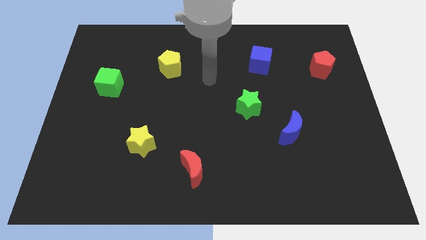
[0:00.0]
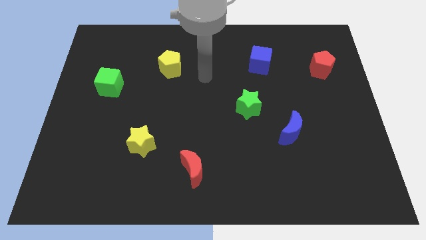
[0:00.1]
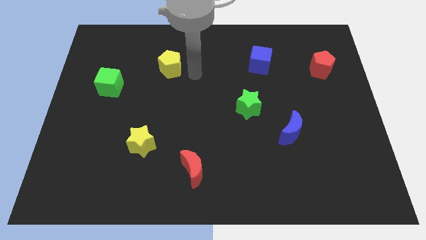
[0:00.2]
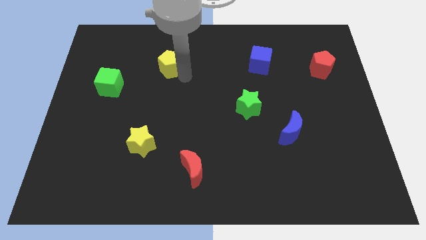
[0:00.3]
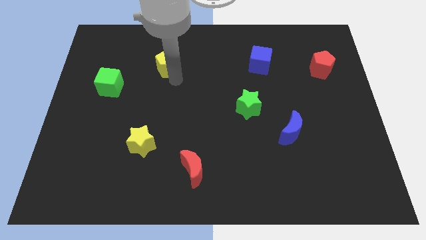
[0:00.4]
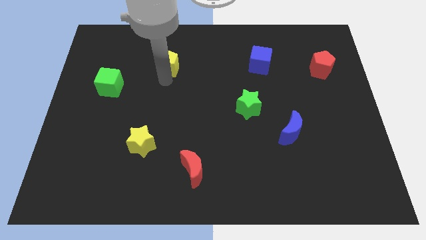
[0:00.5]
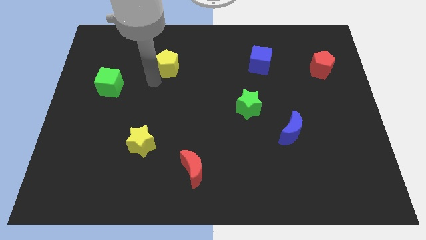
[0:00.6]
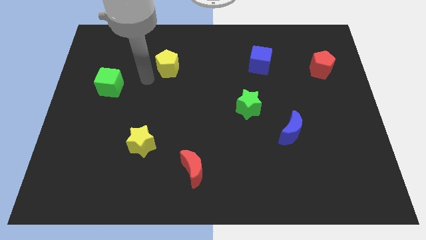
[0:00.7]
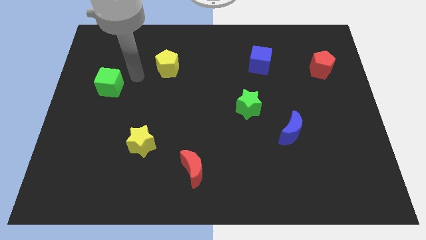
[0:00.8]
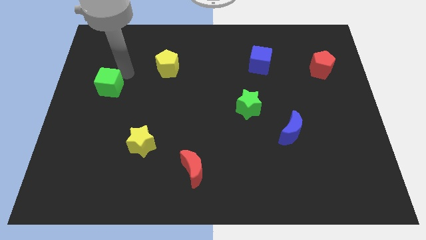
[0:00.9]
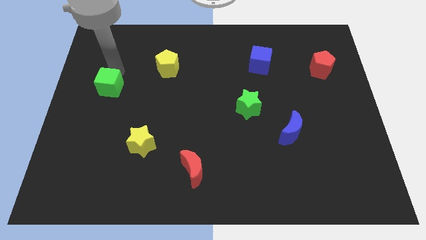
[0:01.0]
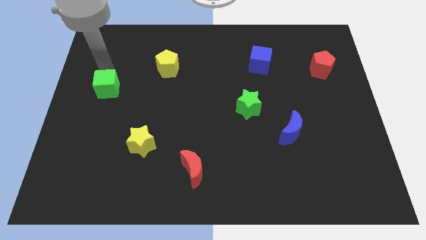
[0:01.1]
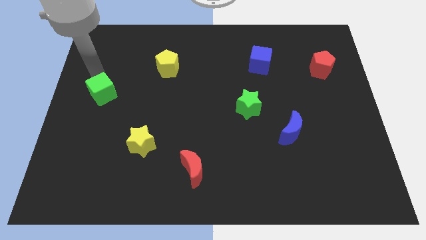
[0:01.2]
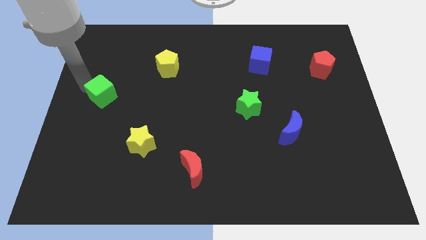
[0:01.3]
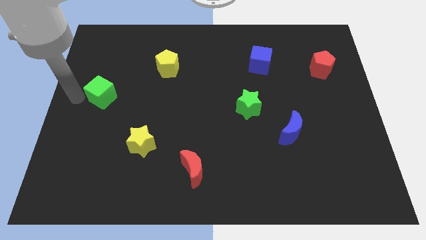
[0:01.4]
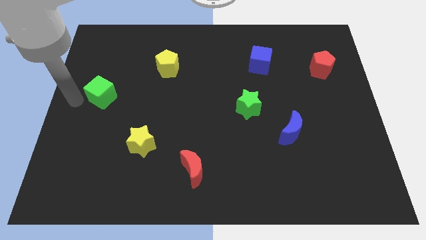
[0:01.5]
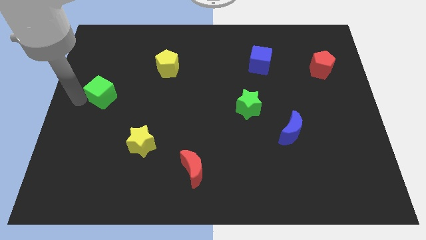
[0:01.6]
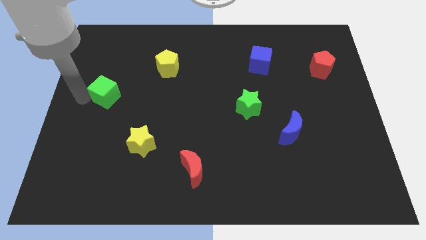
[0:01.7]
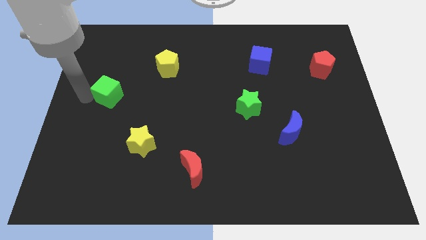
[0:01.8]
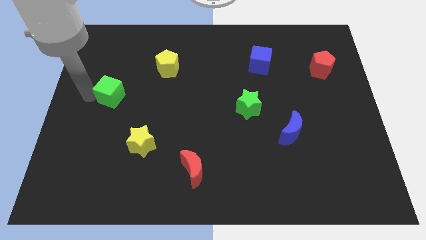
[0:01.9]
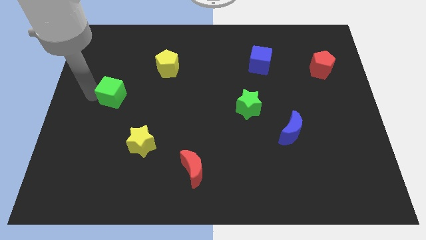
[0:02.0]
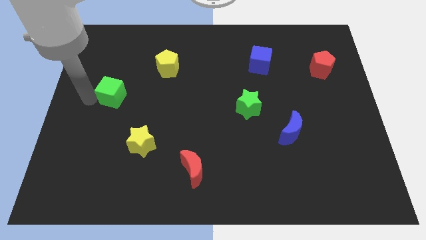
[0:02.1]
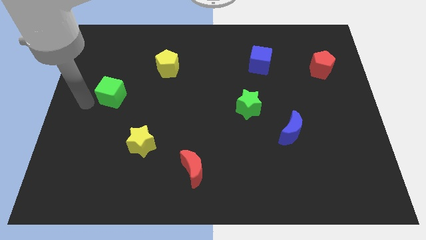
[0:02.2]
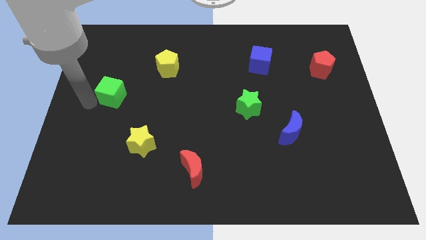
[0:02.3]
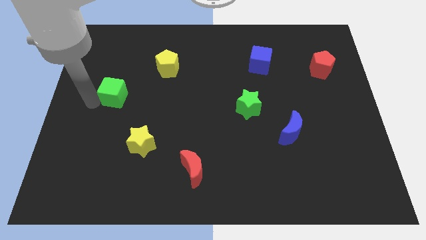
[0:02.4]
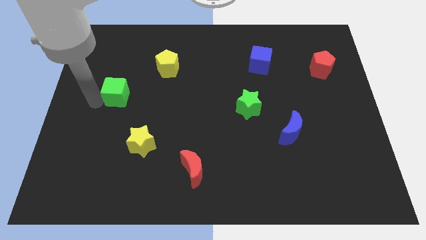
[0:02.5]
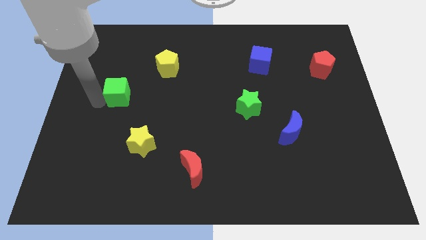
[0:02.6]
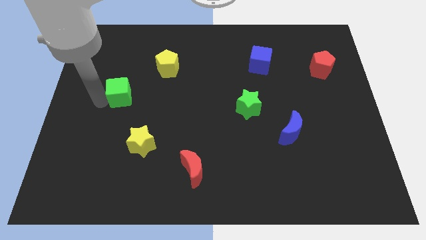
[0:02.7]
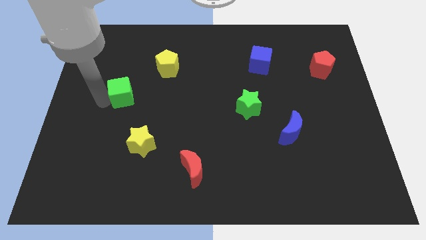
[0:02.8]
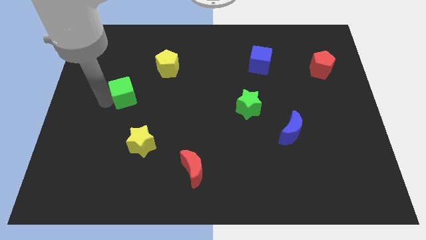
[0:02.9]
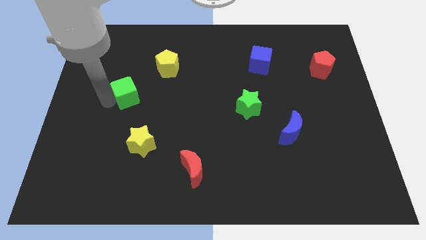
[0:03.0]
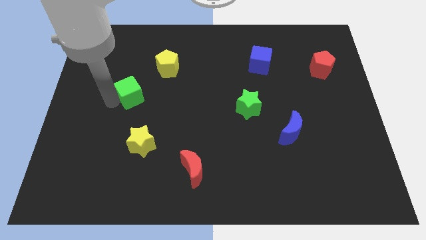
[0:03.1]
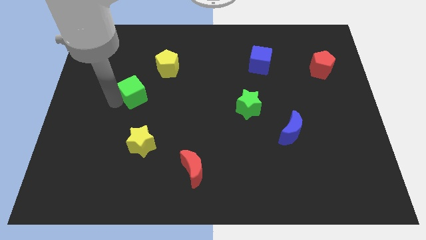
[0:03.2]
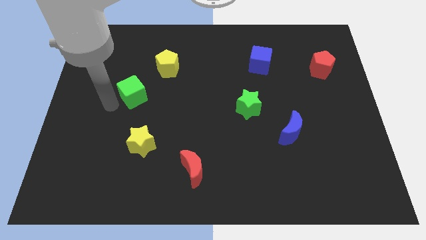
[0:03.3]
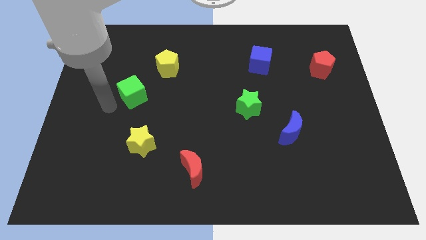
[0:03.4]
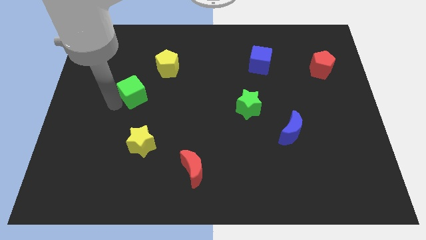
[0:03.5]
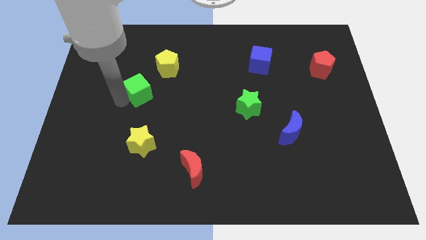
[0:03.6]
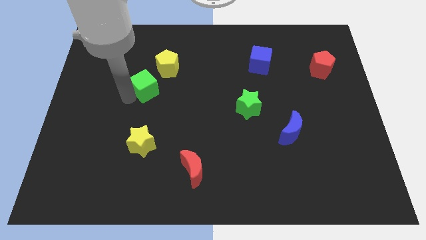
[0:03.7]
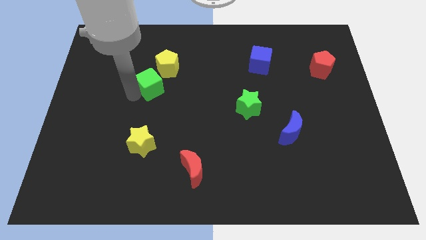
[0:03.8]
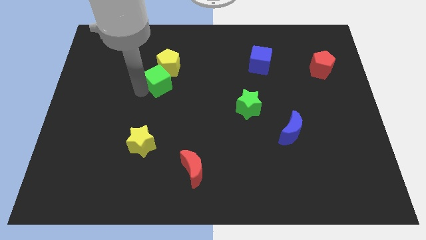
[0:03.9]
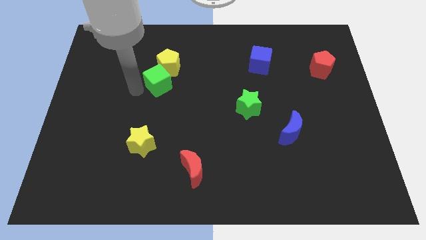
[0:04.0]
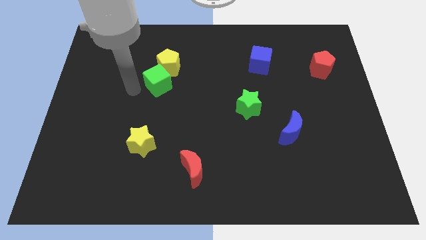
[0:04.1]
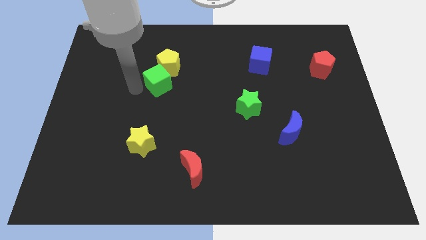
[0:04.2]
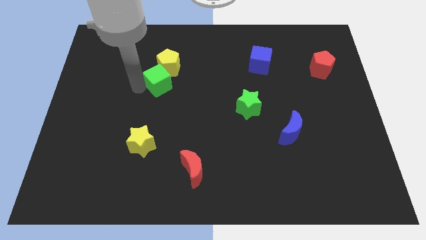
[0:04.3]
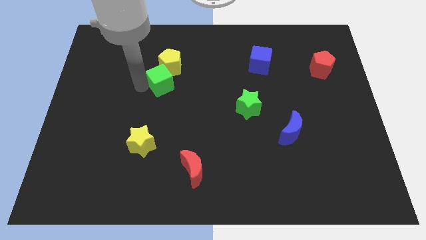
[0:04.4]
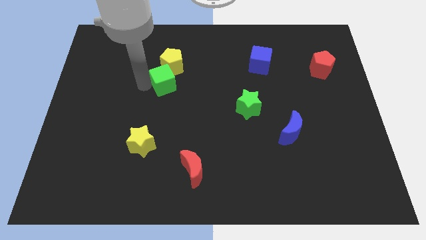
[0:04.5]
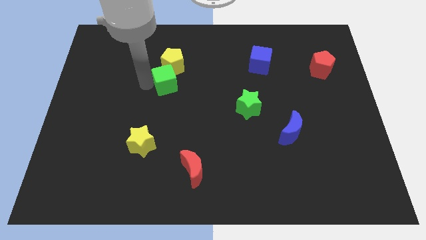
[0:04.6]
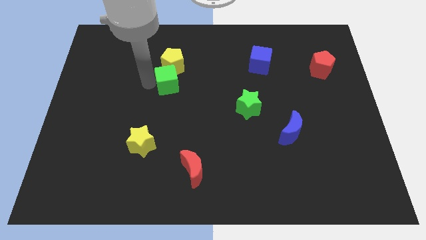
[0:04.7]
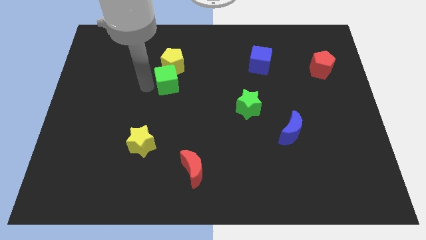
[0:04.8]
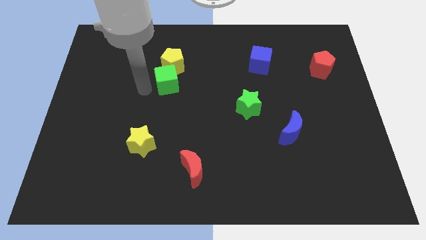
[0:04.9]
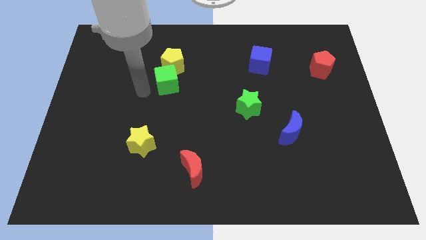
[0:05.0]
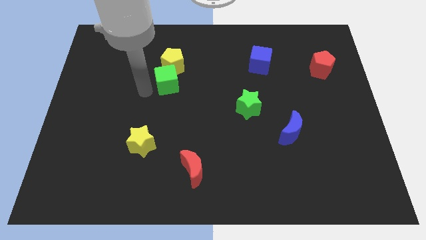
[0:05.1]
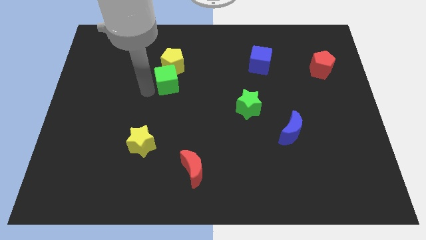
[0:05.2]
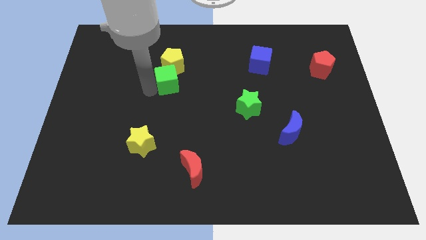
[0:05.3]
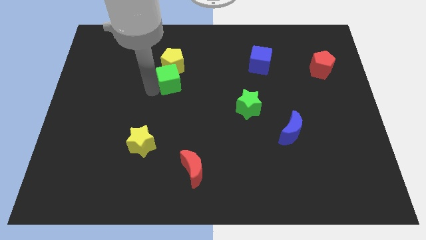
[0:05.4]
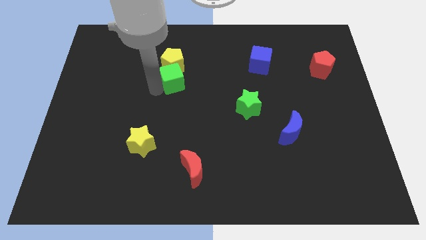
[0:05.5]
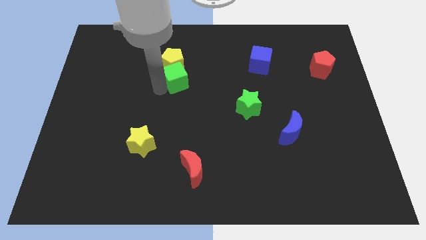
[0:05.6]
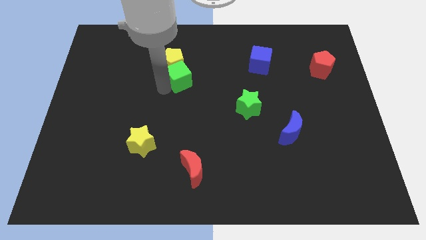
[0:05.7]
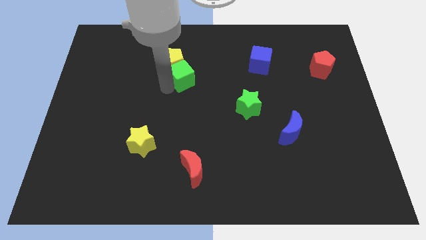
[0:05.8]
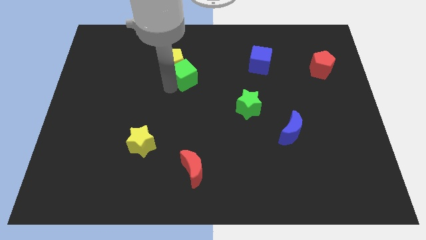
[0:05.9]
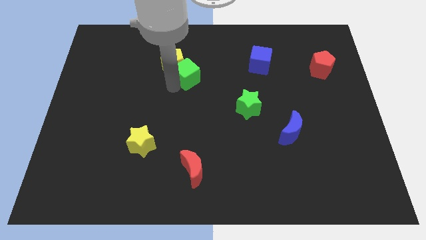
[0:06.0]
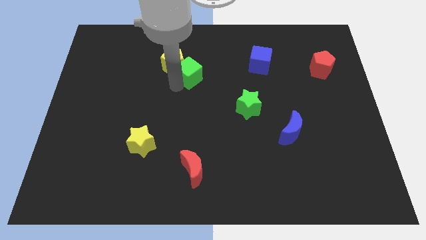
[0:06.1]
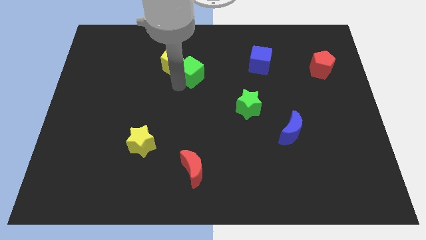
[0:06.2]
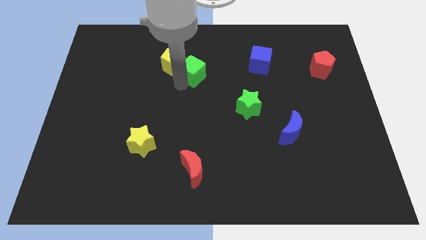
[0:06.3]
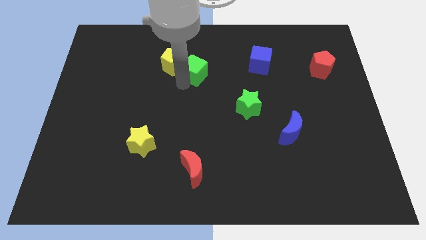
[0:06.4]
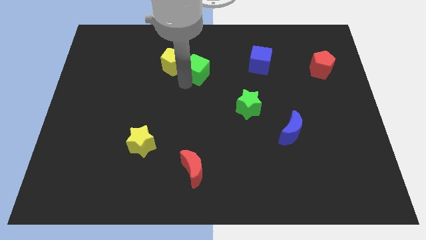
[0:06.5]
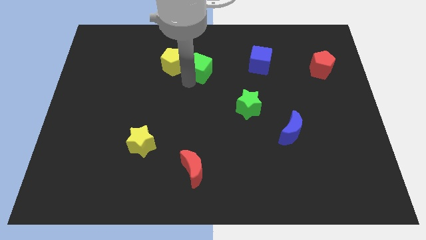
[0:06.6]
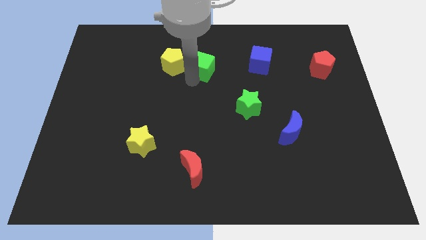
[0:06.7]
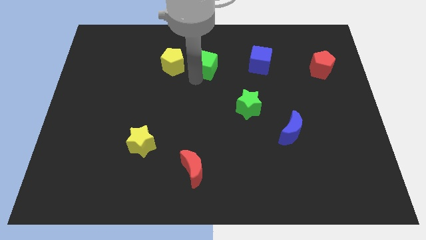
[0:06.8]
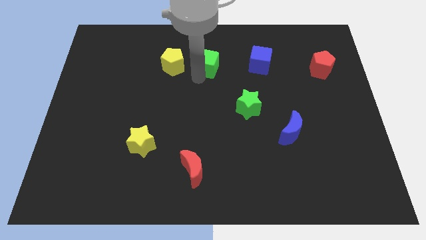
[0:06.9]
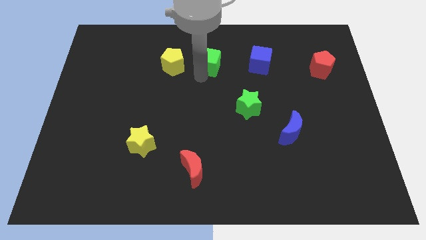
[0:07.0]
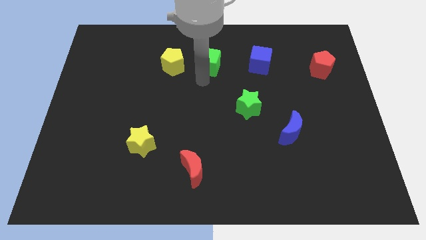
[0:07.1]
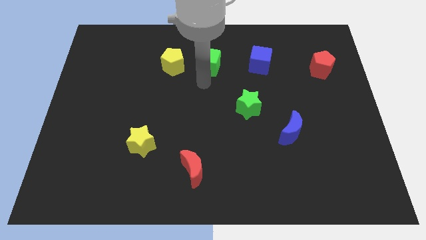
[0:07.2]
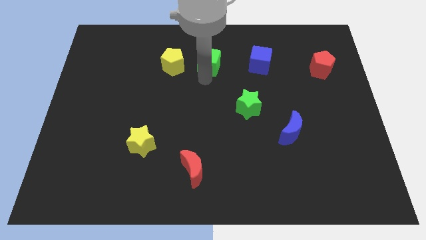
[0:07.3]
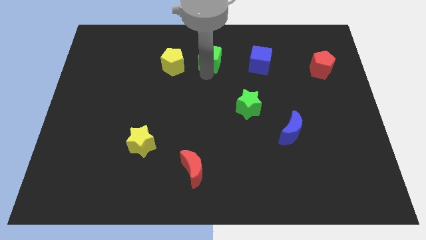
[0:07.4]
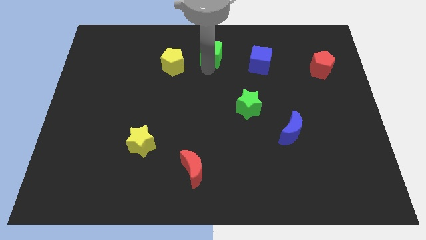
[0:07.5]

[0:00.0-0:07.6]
move the green cube to the top
